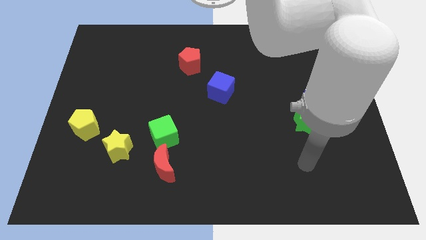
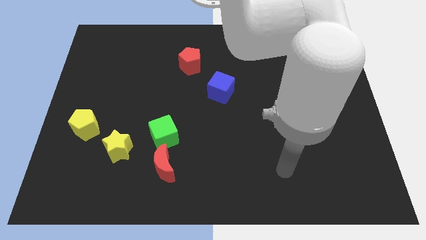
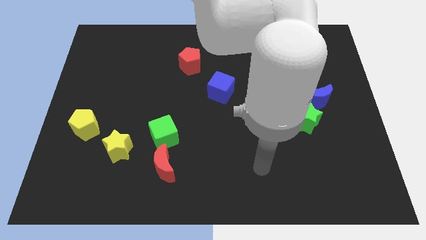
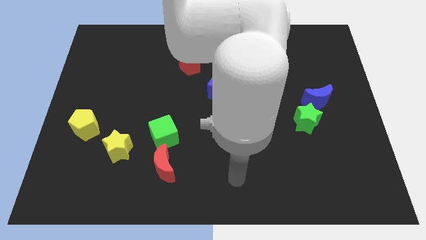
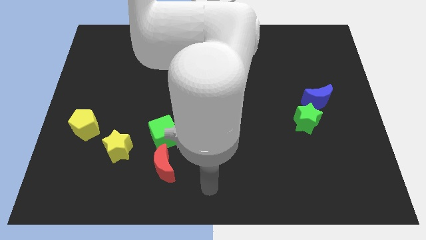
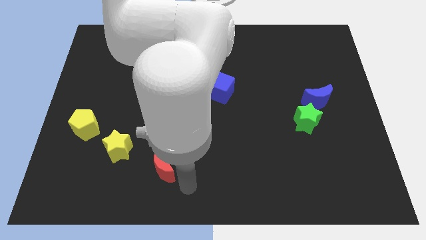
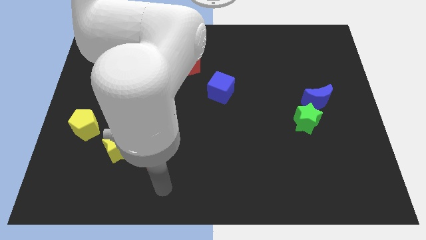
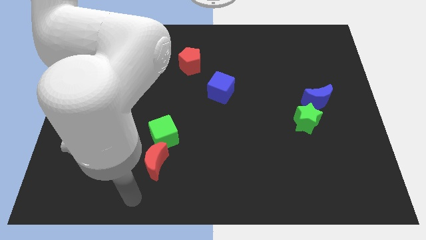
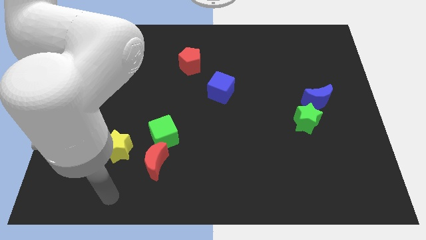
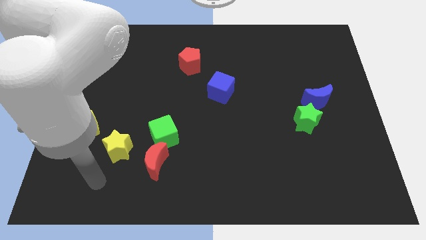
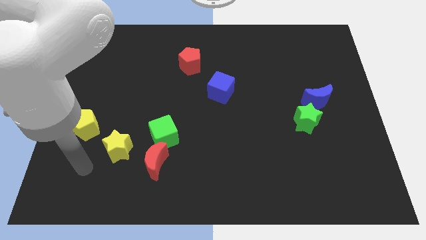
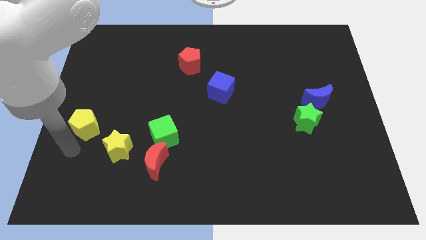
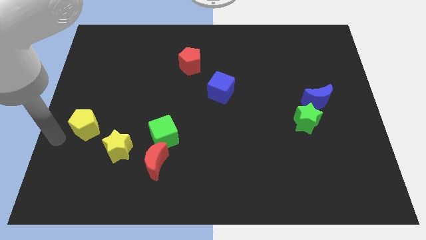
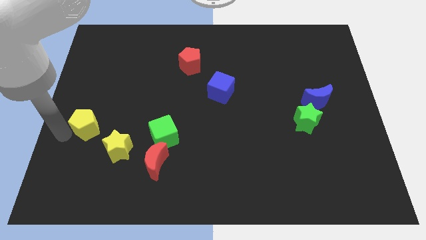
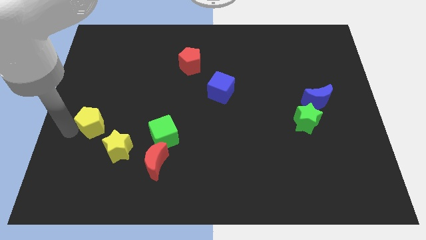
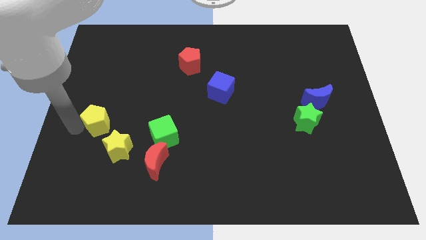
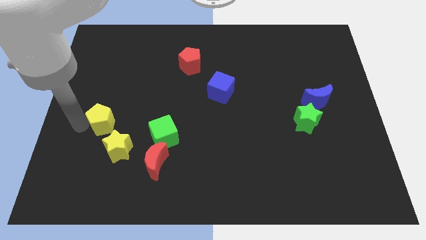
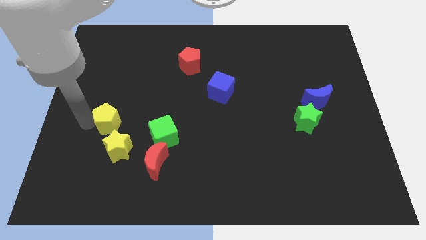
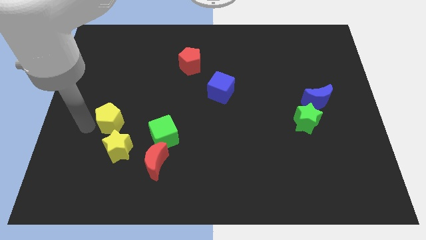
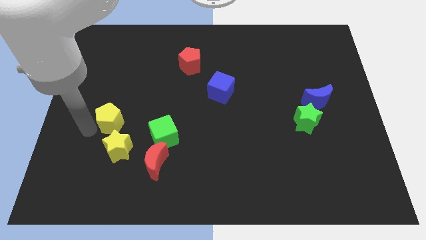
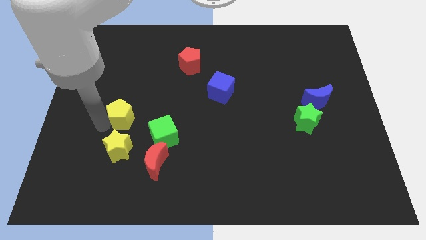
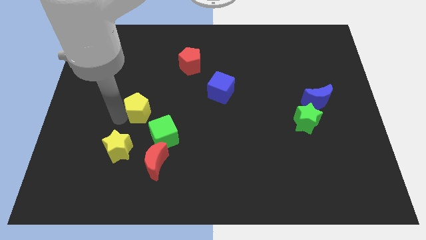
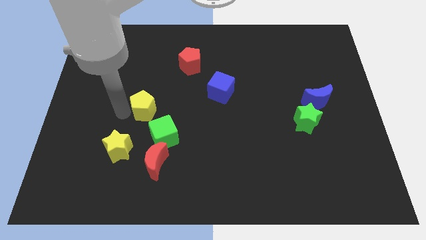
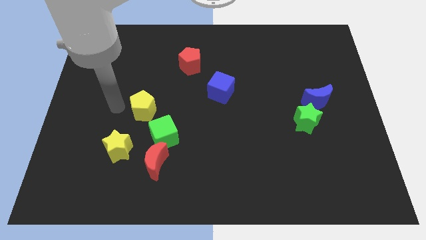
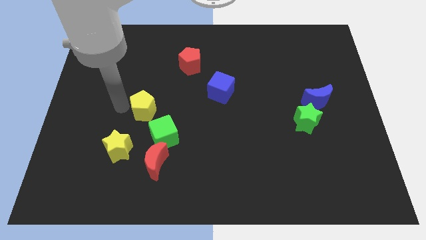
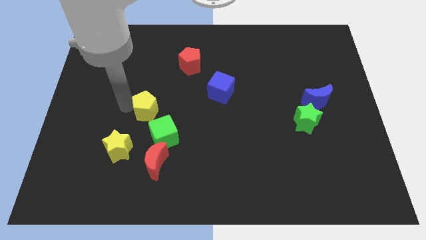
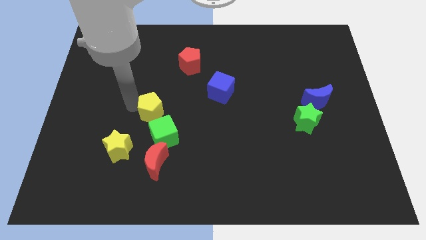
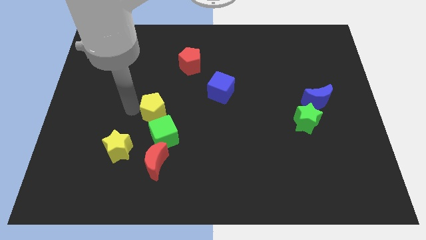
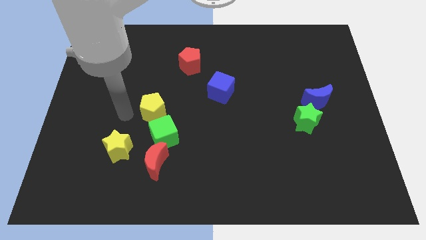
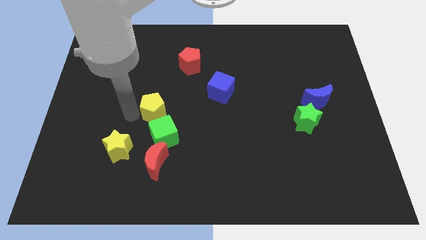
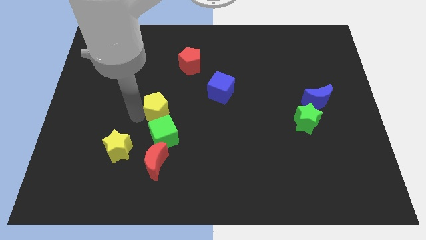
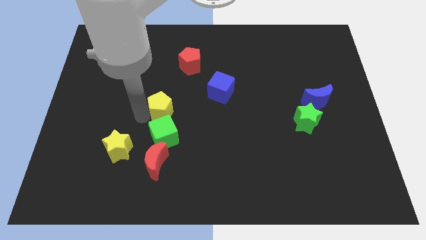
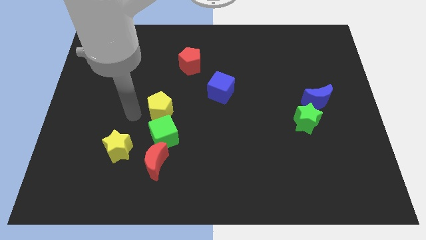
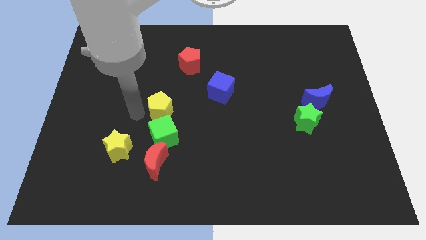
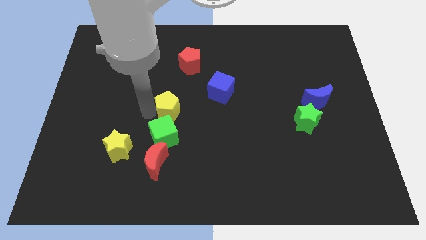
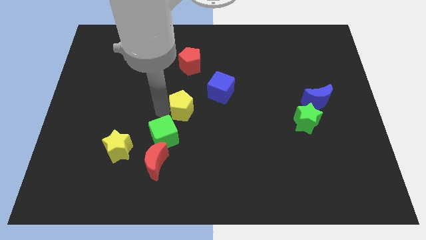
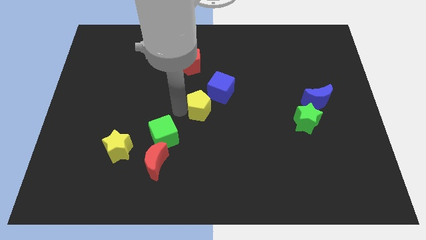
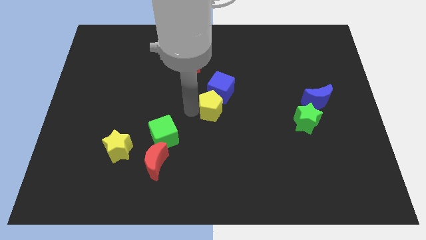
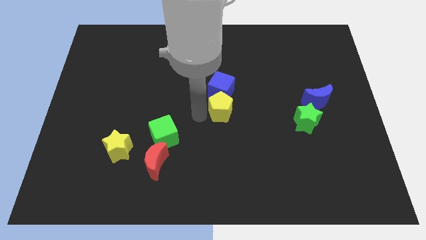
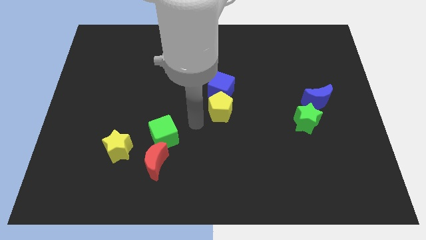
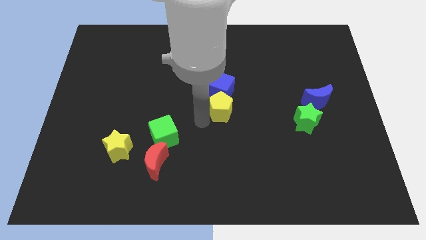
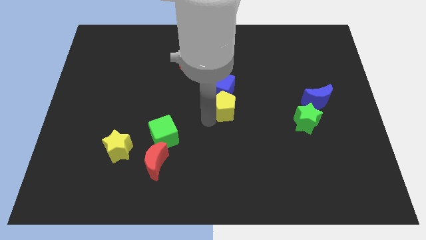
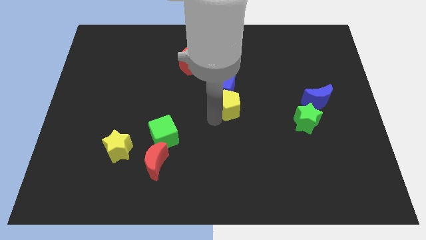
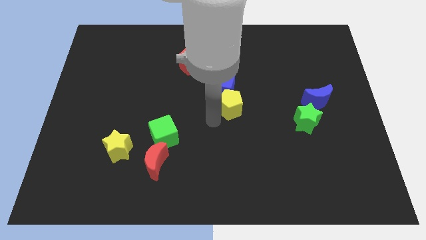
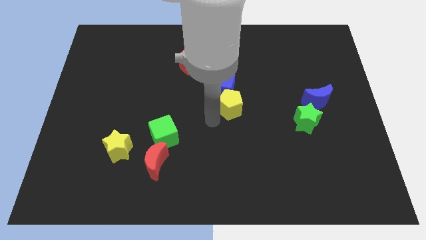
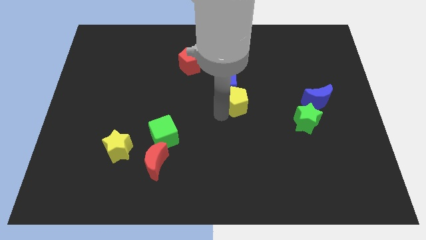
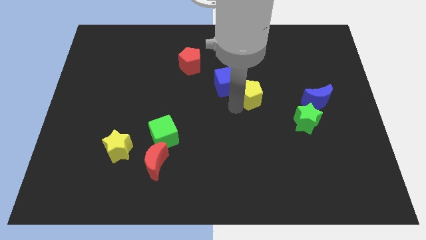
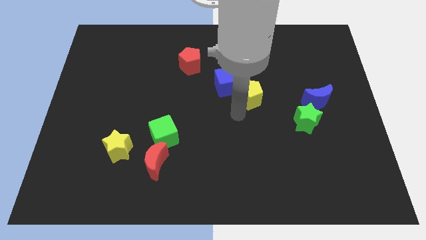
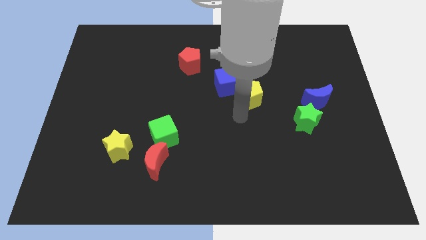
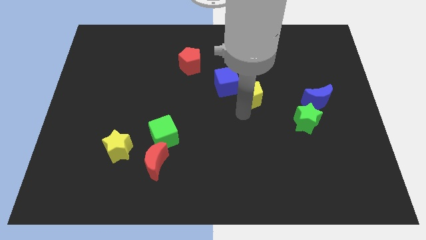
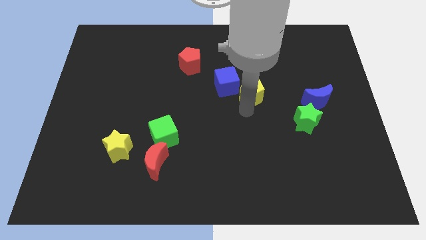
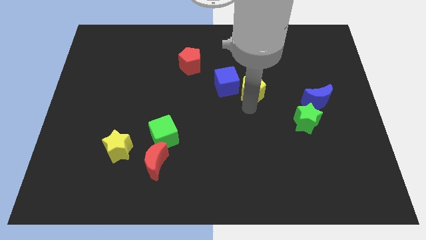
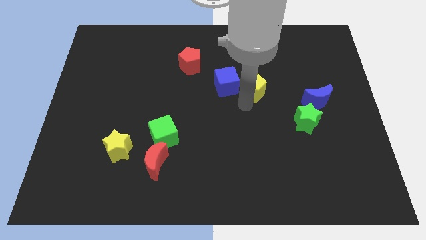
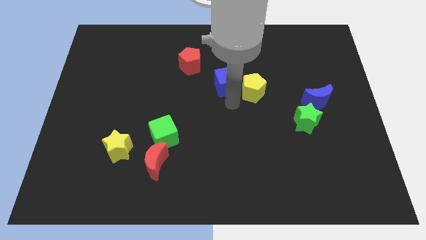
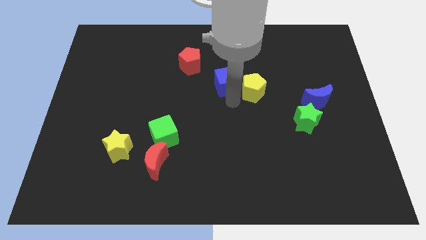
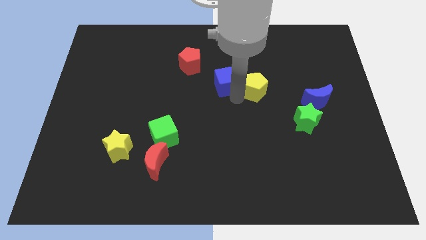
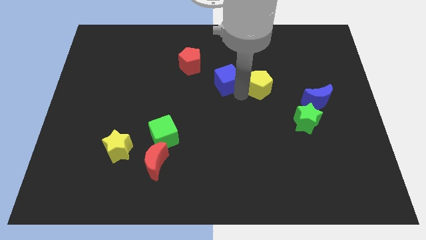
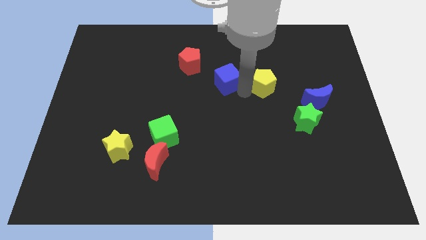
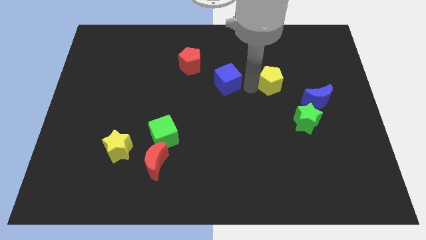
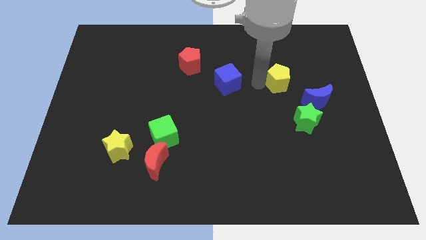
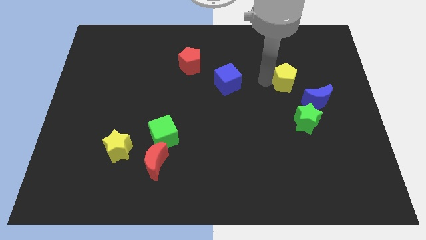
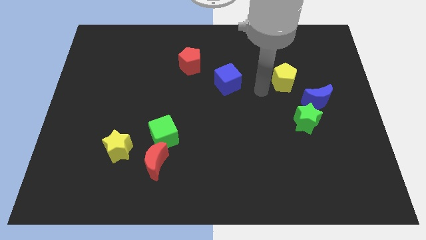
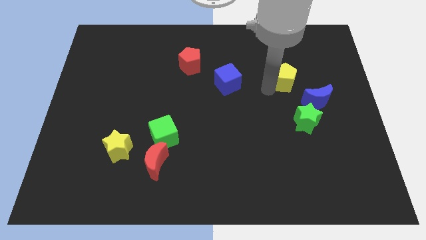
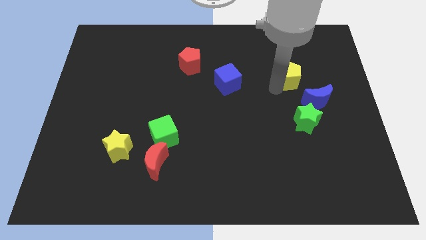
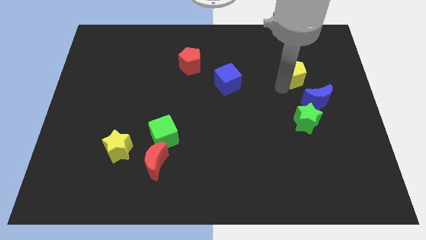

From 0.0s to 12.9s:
put the yellow pentagon to the top of the blue moon
